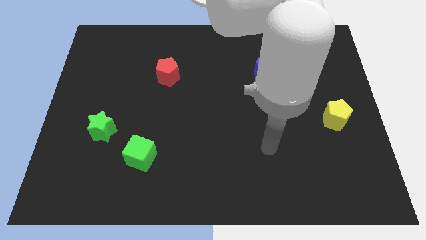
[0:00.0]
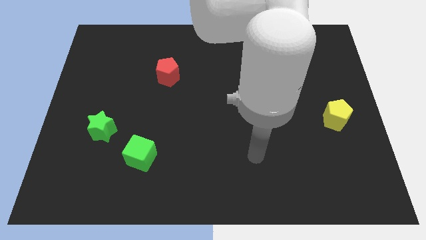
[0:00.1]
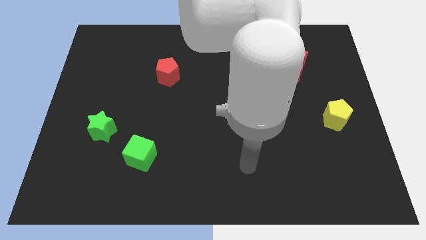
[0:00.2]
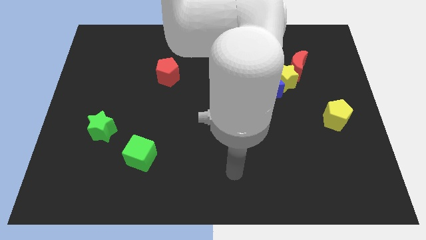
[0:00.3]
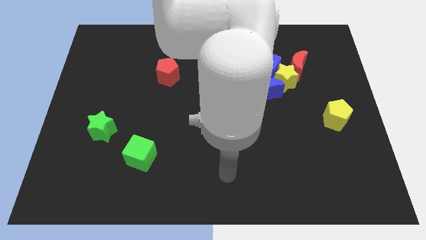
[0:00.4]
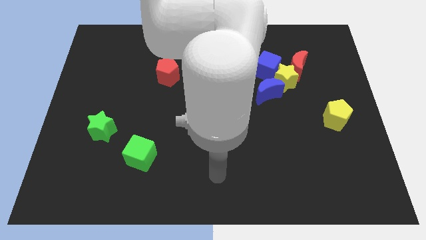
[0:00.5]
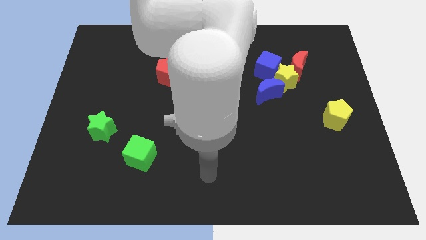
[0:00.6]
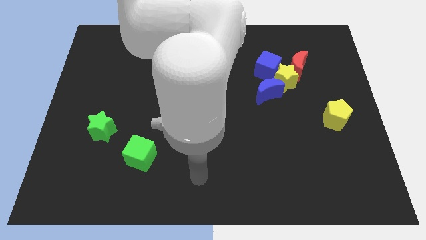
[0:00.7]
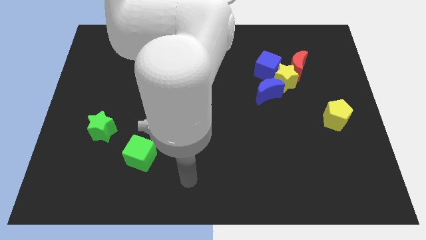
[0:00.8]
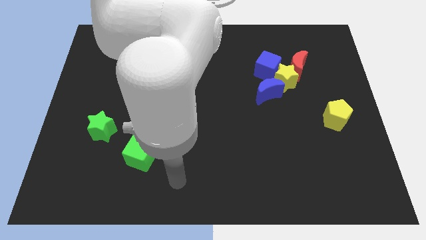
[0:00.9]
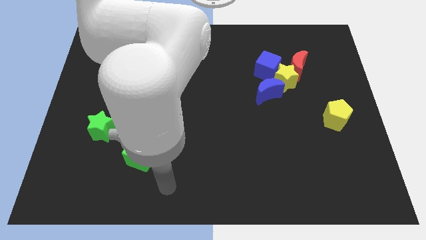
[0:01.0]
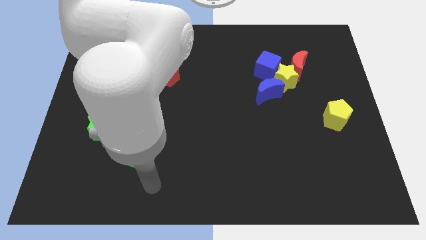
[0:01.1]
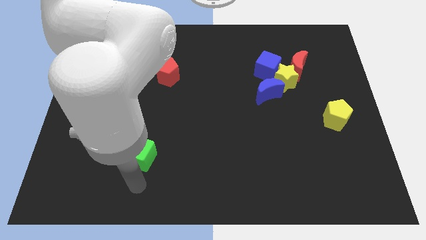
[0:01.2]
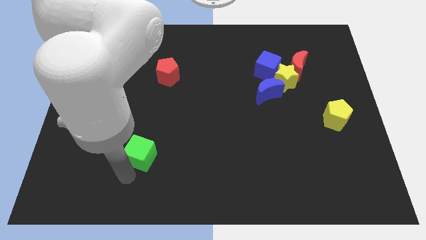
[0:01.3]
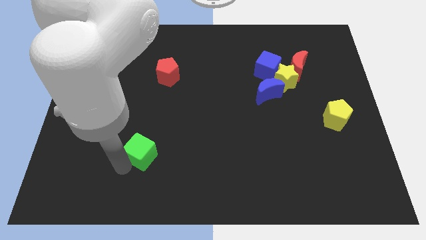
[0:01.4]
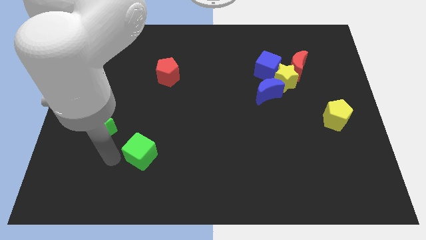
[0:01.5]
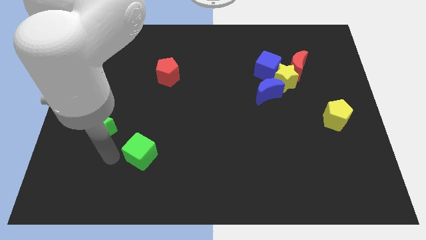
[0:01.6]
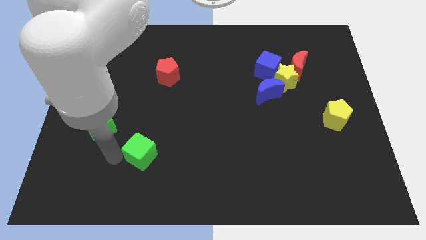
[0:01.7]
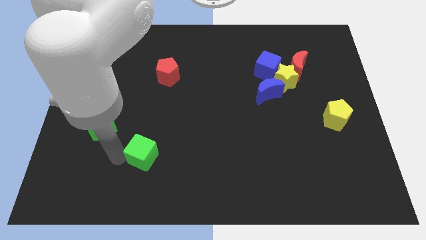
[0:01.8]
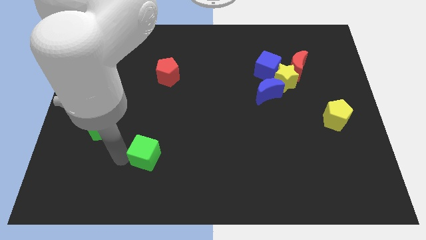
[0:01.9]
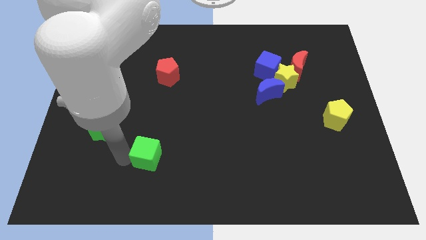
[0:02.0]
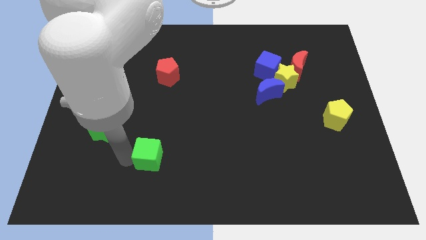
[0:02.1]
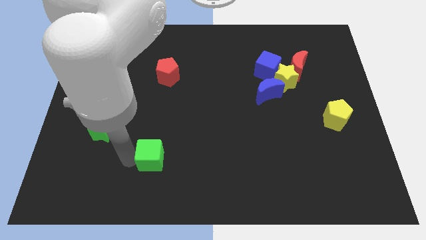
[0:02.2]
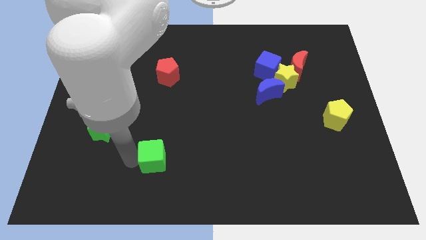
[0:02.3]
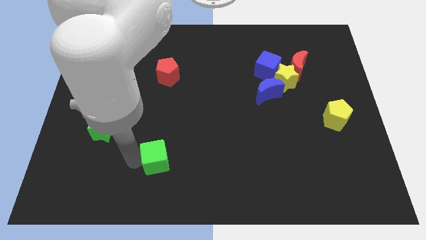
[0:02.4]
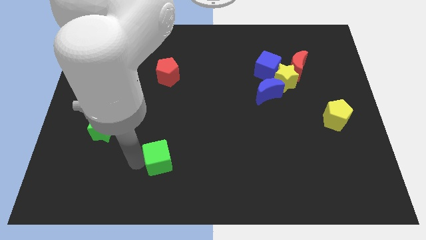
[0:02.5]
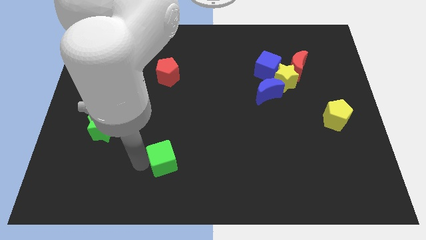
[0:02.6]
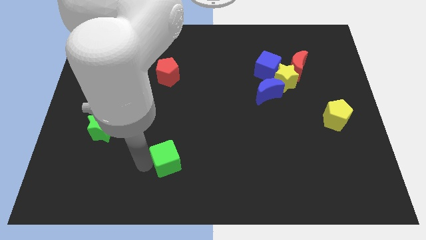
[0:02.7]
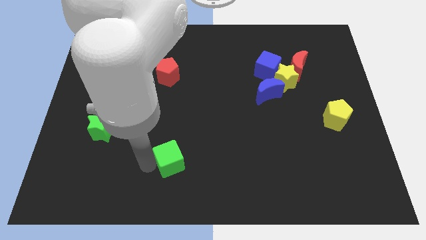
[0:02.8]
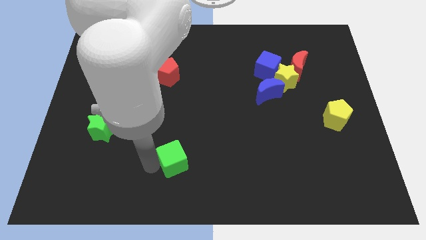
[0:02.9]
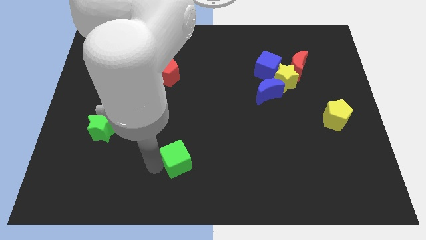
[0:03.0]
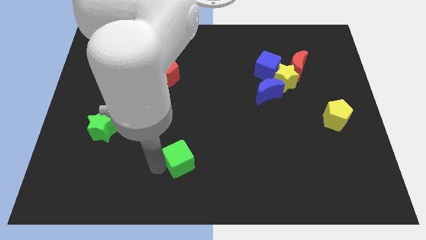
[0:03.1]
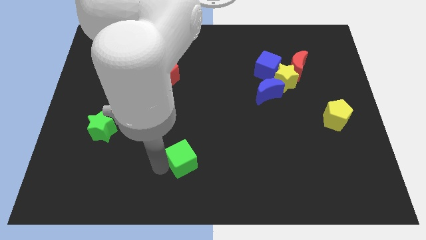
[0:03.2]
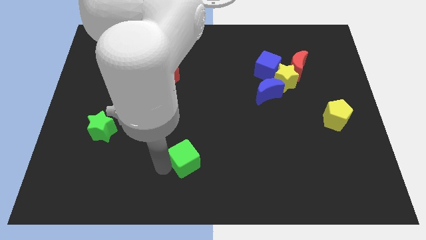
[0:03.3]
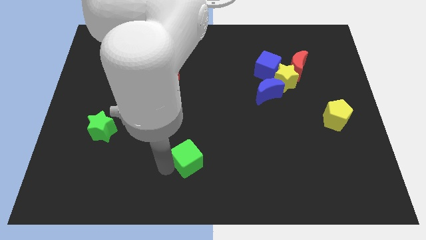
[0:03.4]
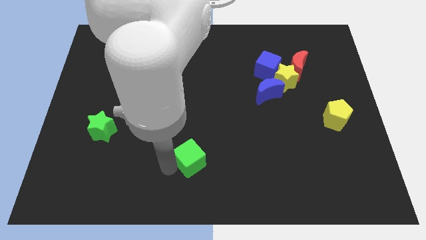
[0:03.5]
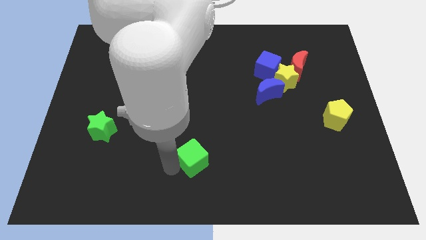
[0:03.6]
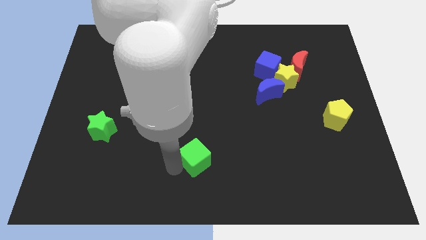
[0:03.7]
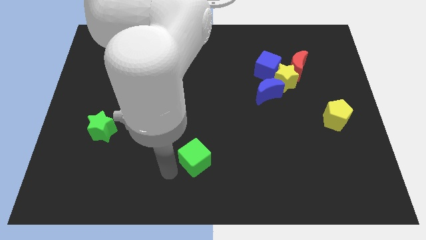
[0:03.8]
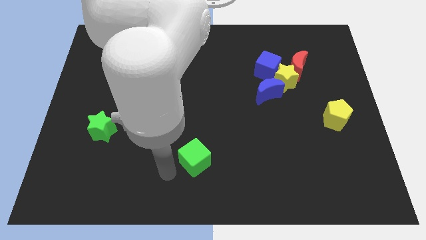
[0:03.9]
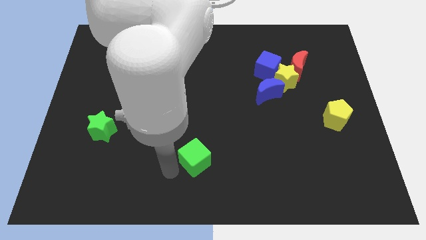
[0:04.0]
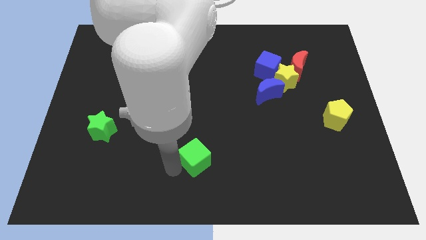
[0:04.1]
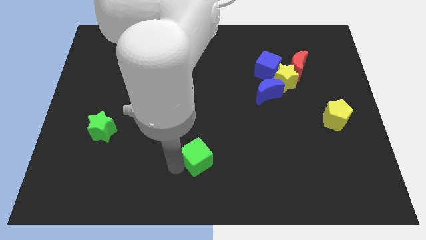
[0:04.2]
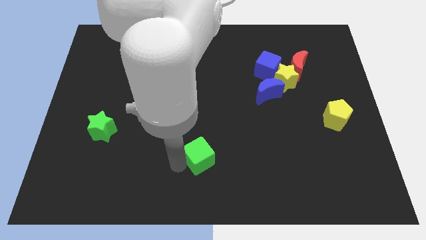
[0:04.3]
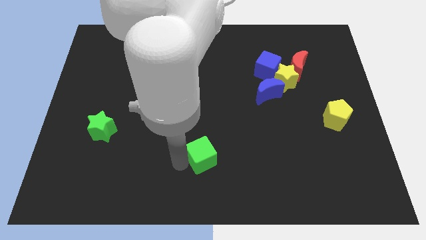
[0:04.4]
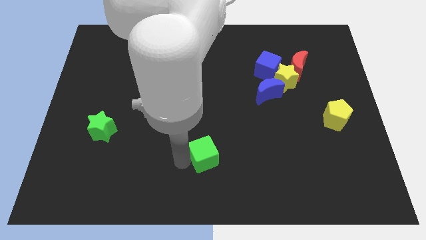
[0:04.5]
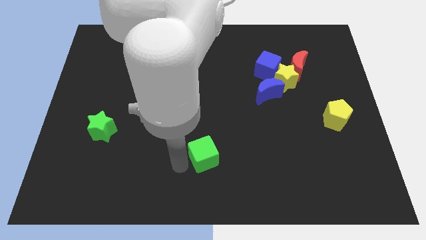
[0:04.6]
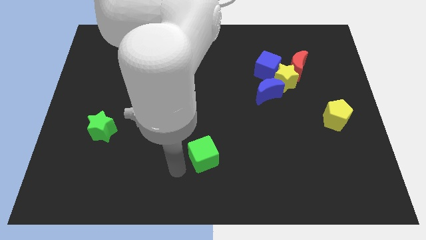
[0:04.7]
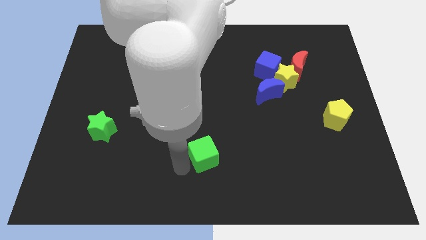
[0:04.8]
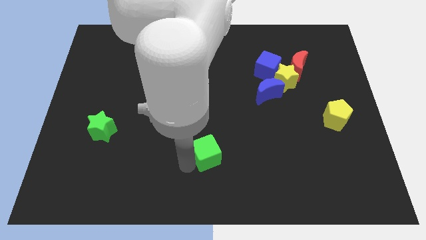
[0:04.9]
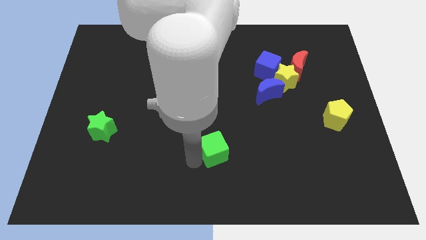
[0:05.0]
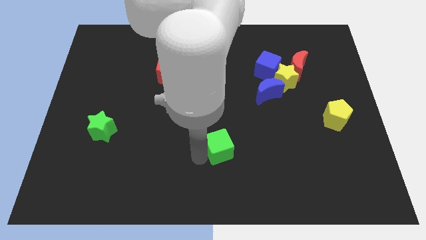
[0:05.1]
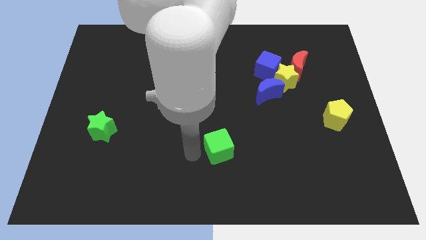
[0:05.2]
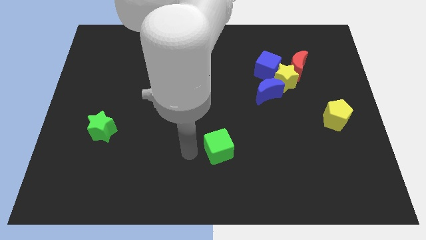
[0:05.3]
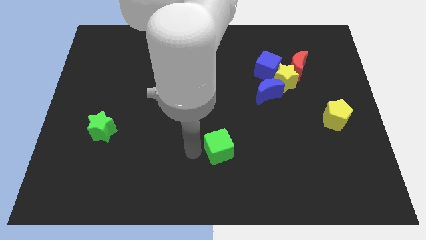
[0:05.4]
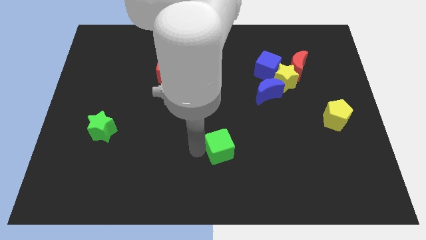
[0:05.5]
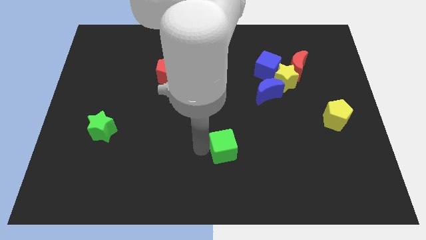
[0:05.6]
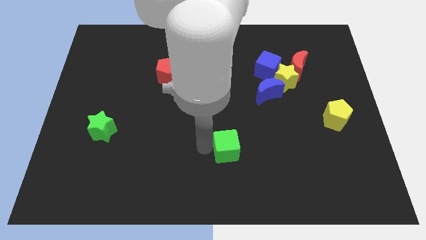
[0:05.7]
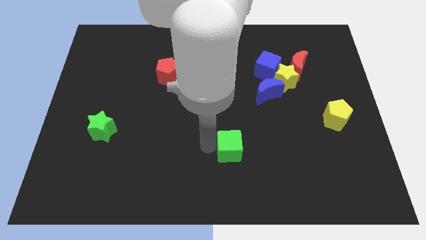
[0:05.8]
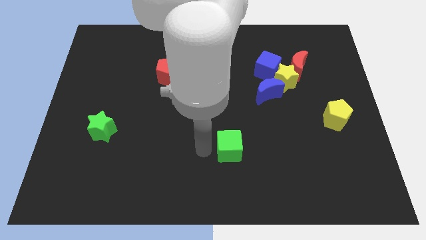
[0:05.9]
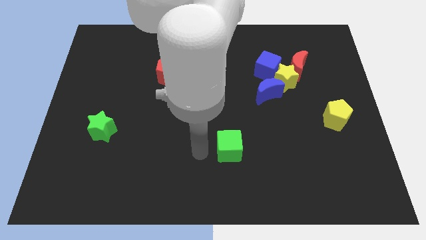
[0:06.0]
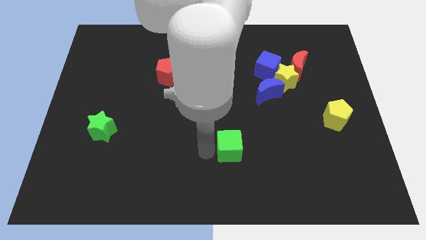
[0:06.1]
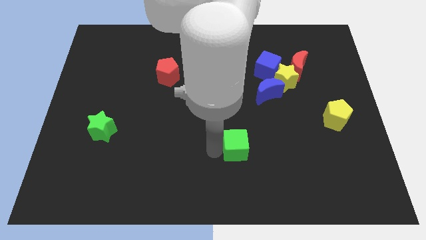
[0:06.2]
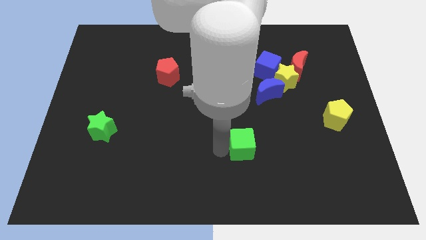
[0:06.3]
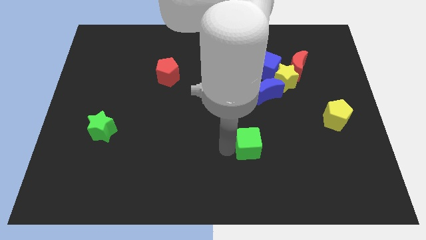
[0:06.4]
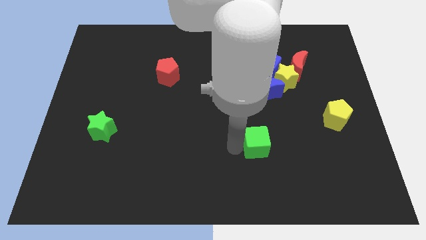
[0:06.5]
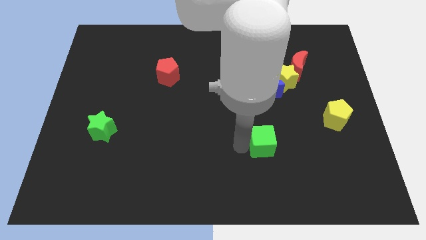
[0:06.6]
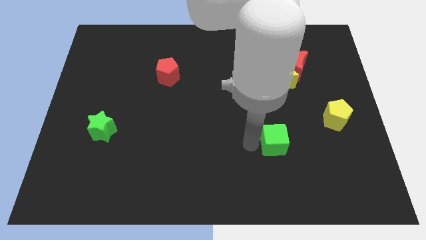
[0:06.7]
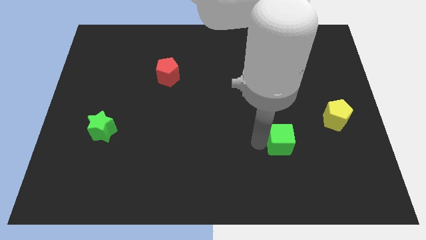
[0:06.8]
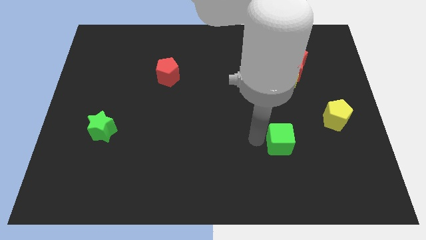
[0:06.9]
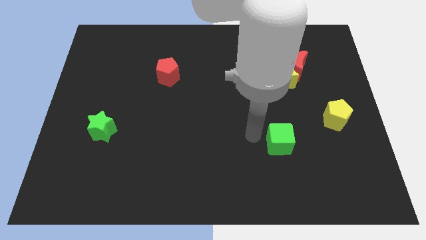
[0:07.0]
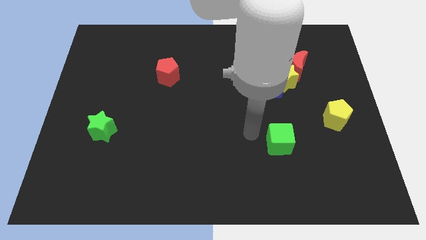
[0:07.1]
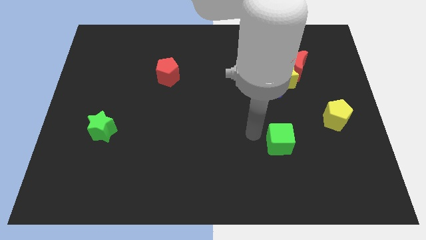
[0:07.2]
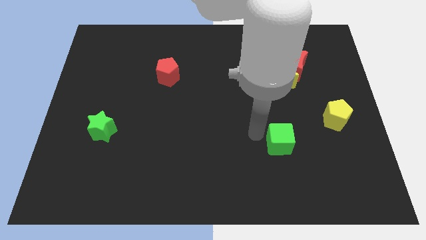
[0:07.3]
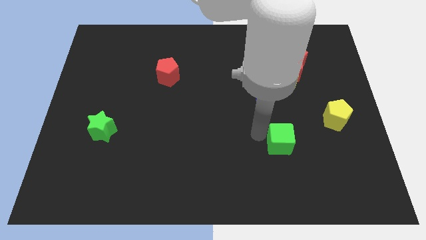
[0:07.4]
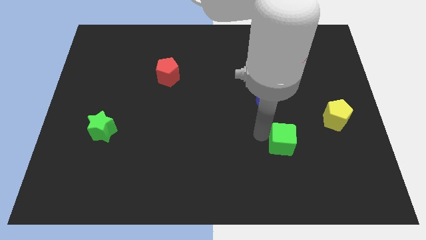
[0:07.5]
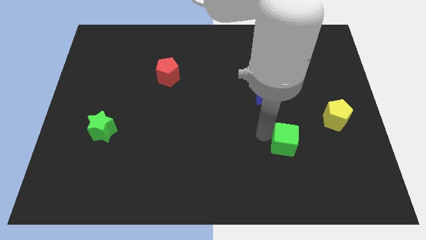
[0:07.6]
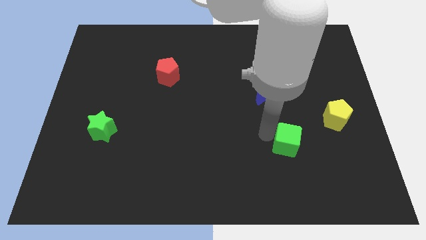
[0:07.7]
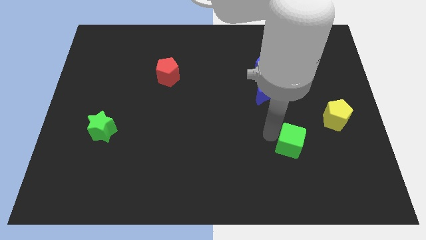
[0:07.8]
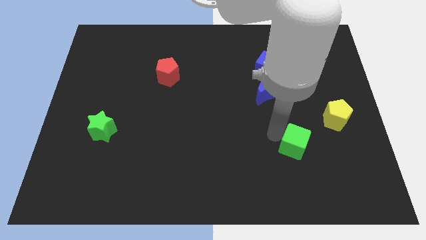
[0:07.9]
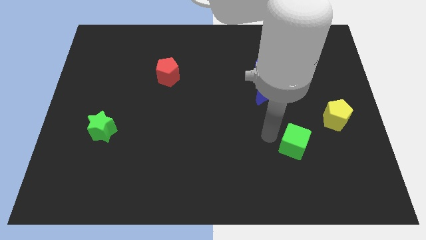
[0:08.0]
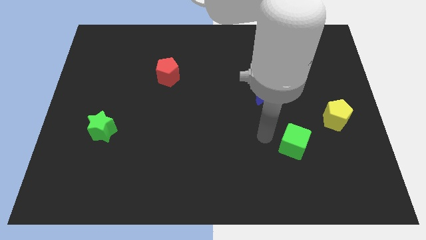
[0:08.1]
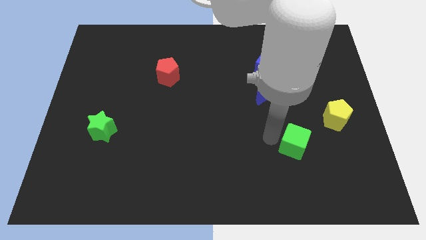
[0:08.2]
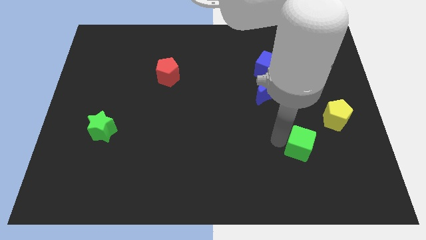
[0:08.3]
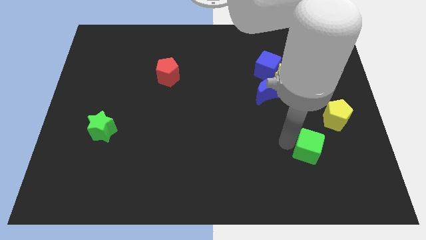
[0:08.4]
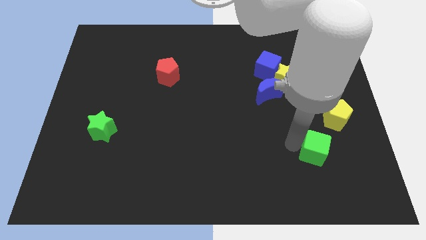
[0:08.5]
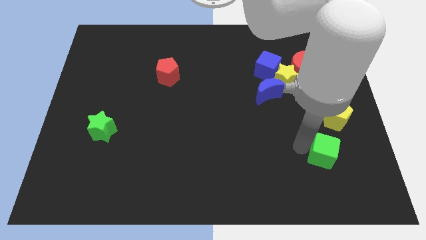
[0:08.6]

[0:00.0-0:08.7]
move the green cube below the yellow pentagon
